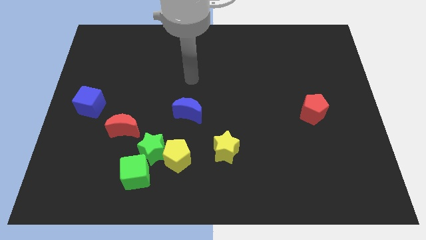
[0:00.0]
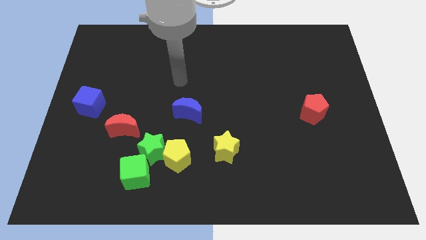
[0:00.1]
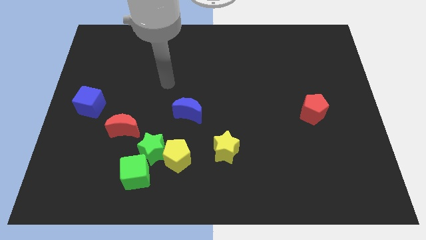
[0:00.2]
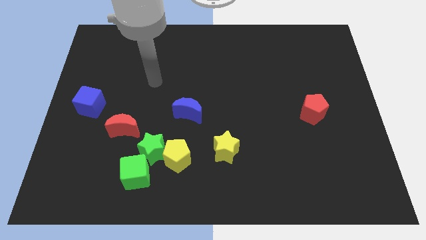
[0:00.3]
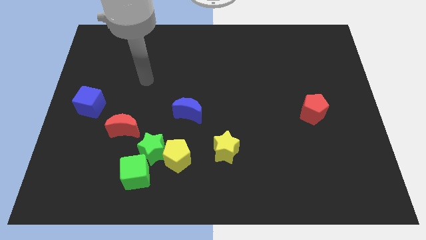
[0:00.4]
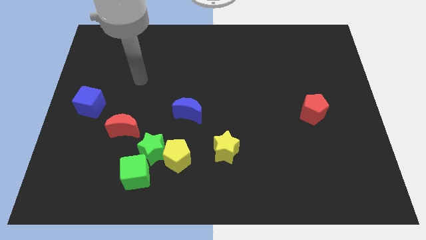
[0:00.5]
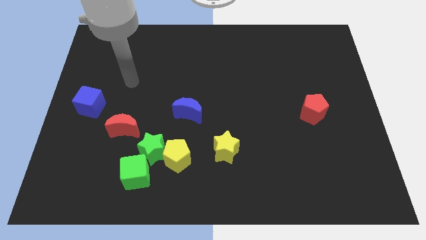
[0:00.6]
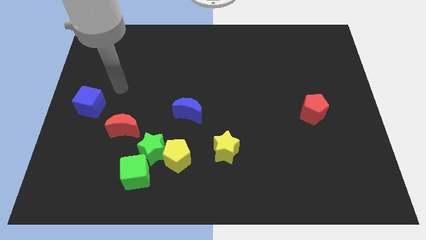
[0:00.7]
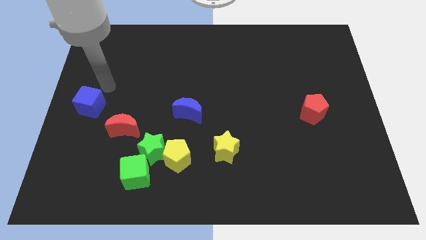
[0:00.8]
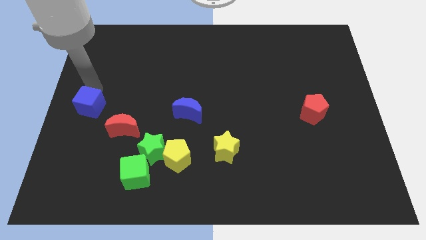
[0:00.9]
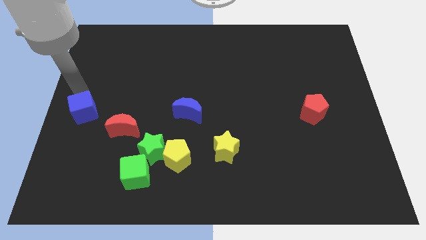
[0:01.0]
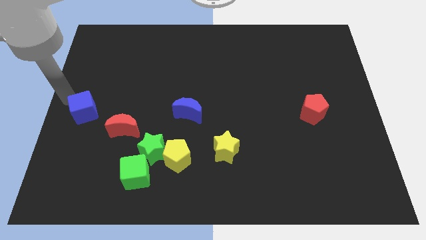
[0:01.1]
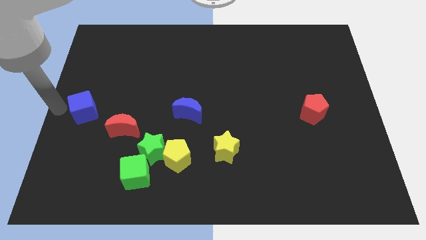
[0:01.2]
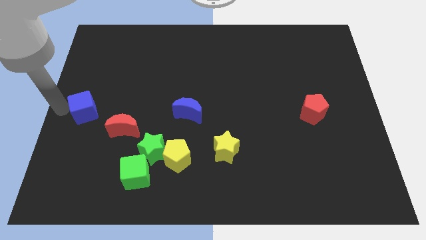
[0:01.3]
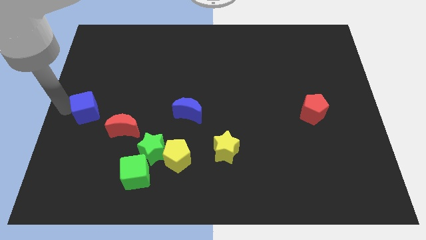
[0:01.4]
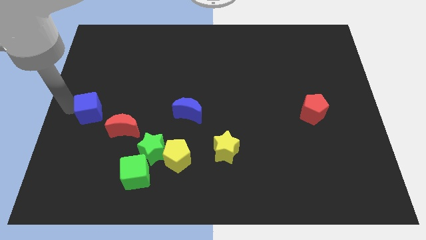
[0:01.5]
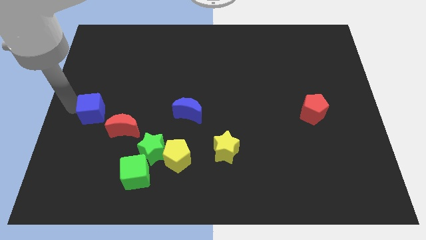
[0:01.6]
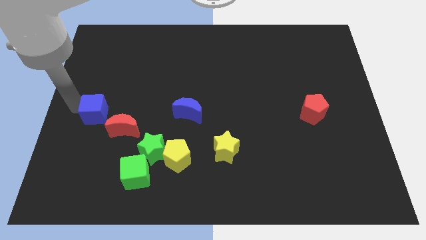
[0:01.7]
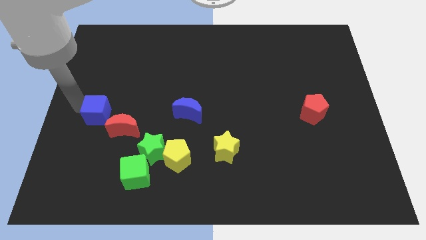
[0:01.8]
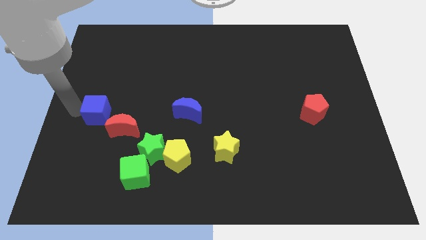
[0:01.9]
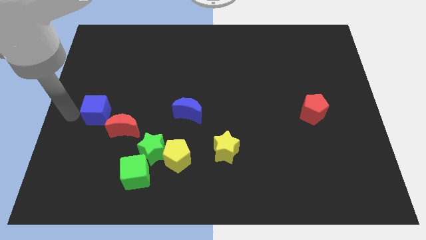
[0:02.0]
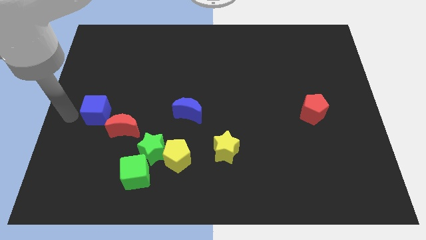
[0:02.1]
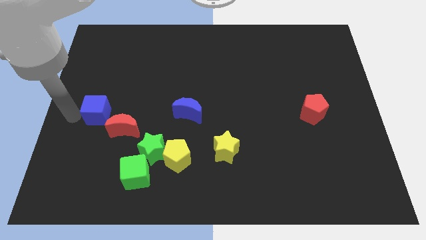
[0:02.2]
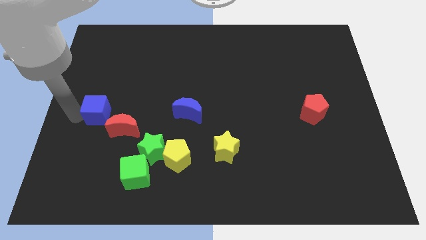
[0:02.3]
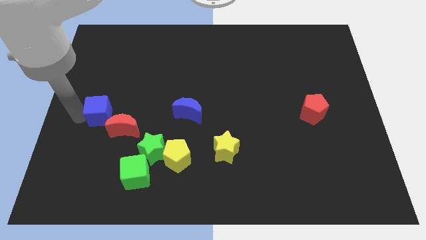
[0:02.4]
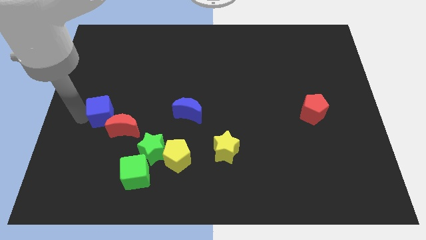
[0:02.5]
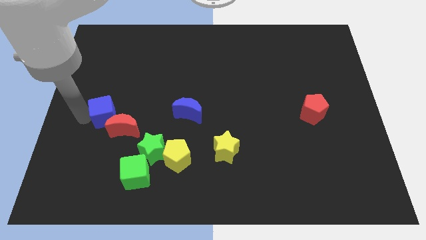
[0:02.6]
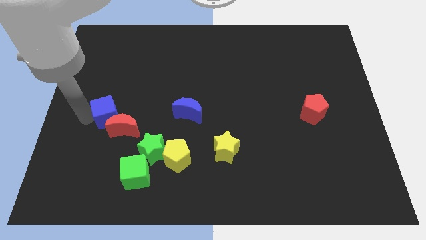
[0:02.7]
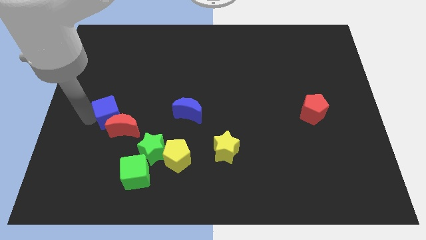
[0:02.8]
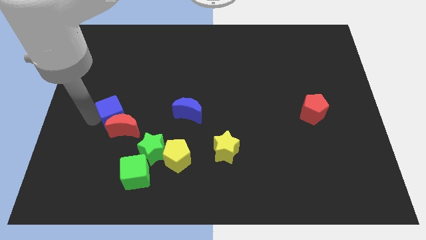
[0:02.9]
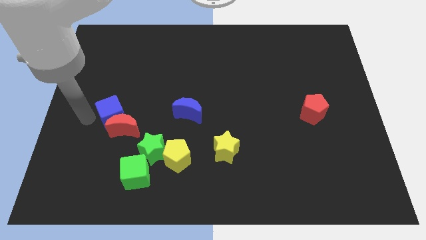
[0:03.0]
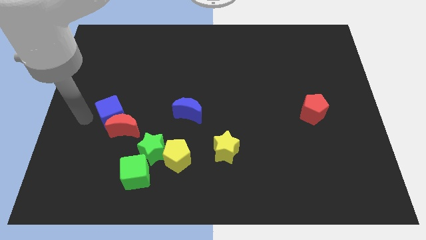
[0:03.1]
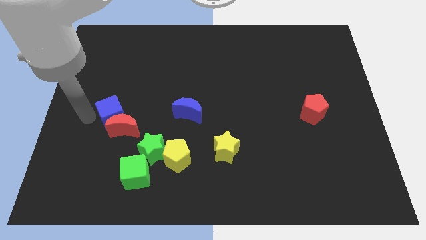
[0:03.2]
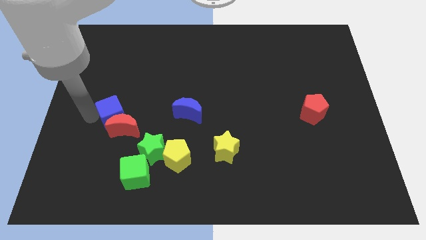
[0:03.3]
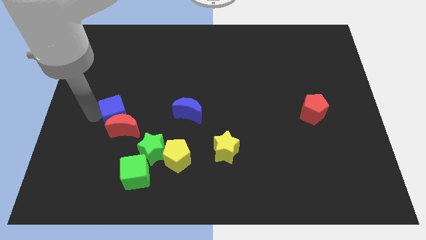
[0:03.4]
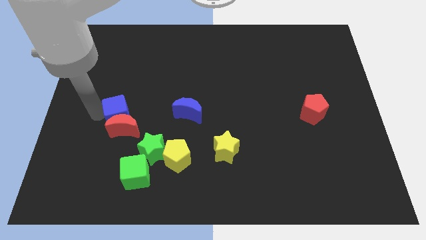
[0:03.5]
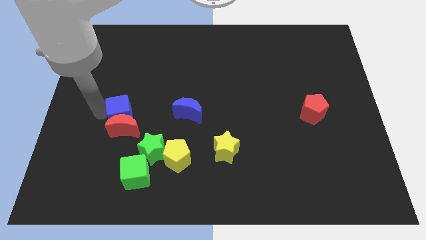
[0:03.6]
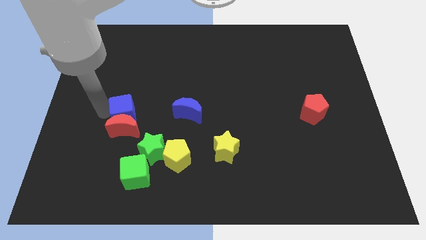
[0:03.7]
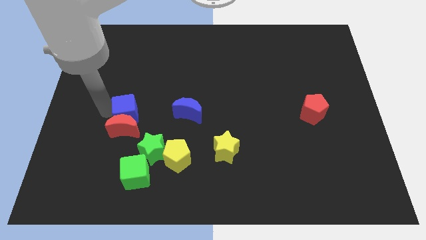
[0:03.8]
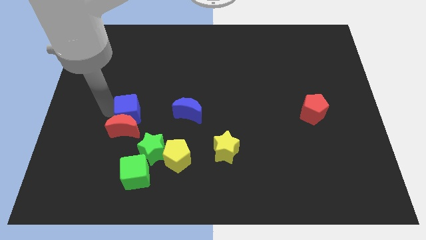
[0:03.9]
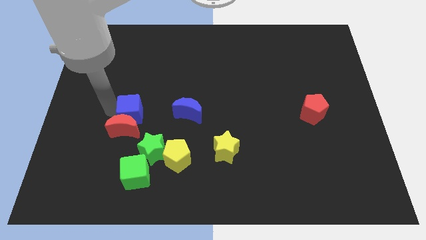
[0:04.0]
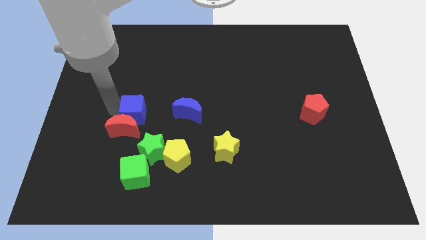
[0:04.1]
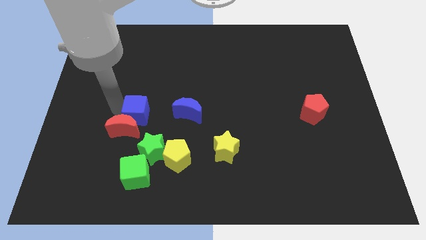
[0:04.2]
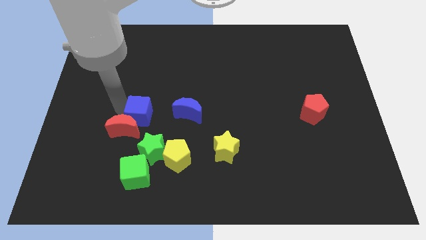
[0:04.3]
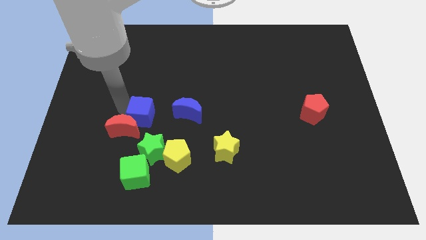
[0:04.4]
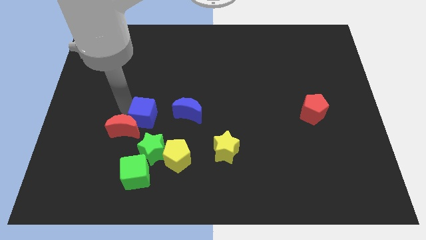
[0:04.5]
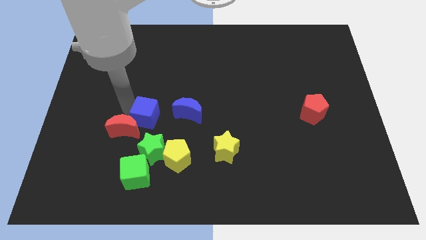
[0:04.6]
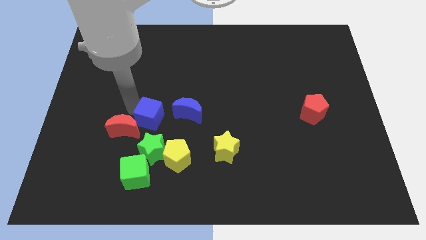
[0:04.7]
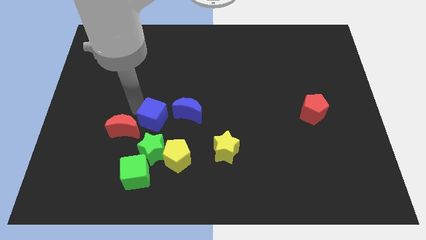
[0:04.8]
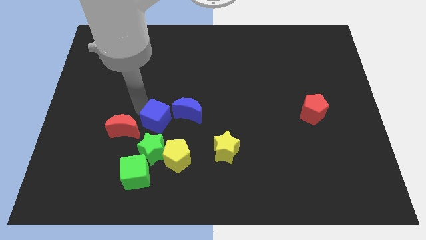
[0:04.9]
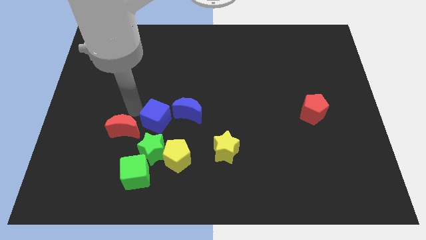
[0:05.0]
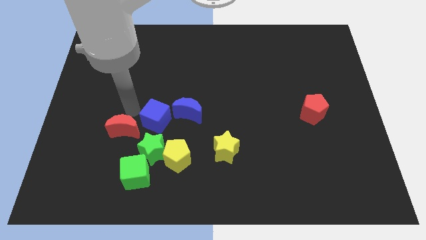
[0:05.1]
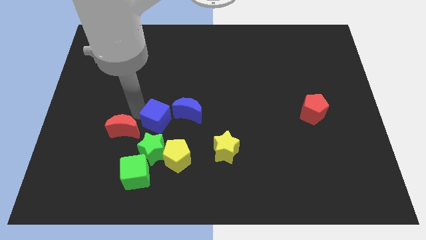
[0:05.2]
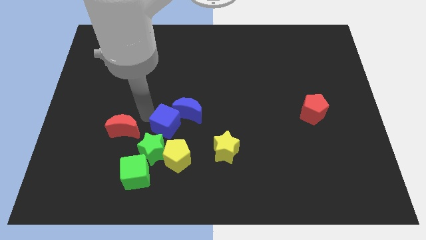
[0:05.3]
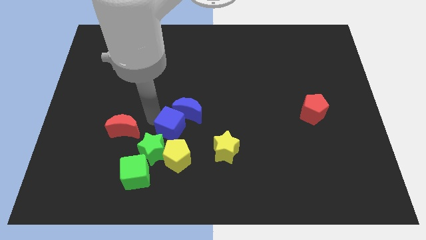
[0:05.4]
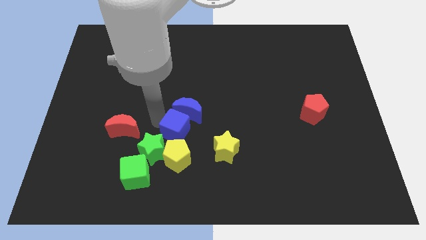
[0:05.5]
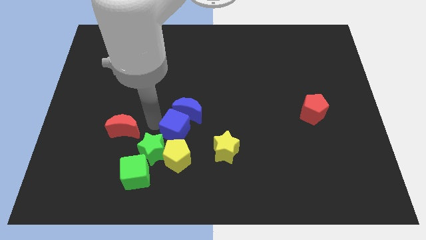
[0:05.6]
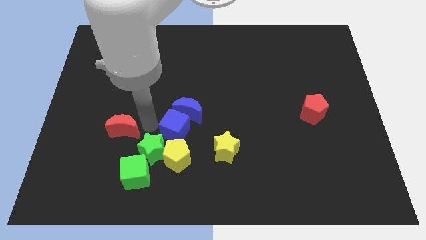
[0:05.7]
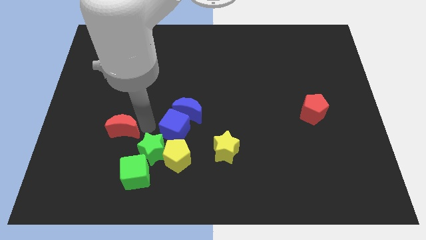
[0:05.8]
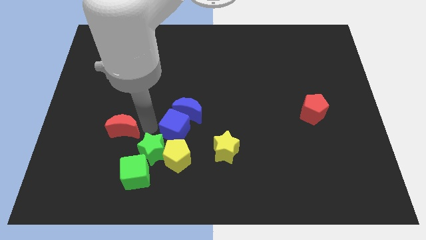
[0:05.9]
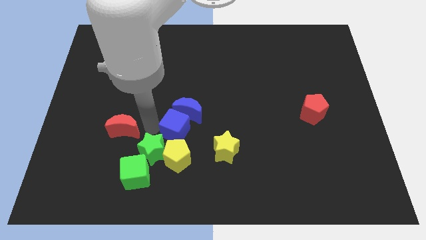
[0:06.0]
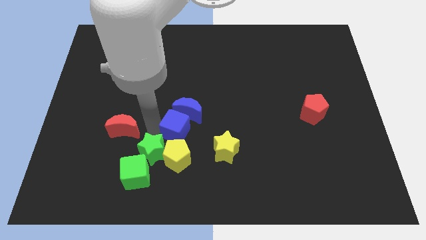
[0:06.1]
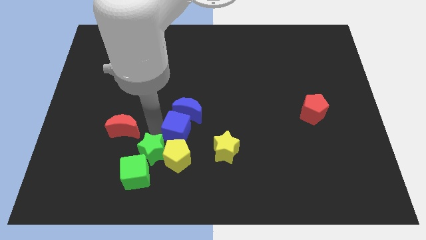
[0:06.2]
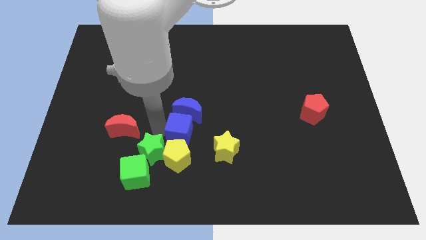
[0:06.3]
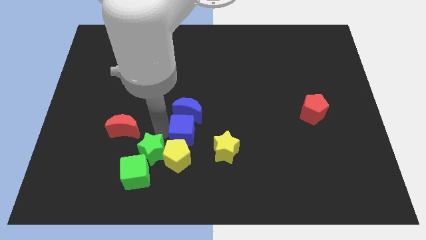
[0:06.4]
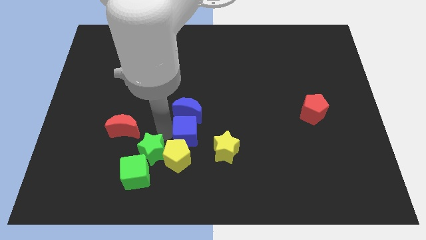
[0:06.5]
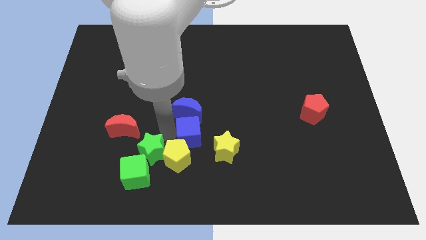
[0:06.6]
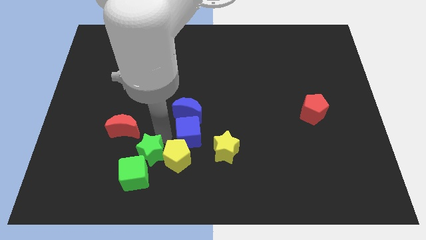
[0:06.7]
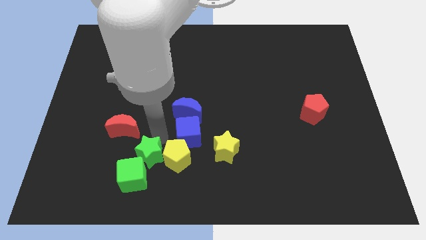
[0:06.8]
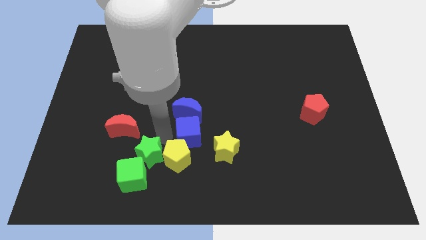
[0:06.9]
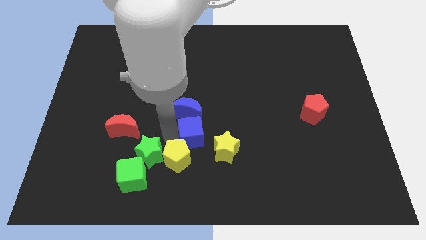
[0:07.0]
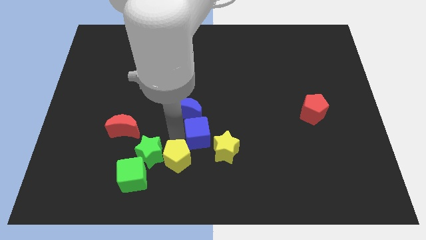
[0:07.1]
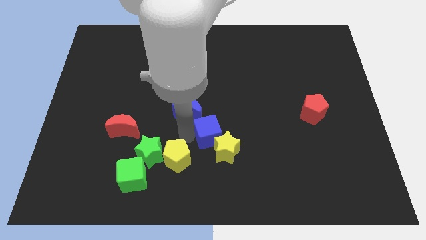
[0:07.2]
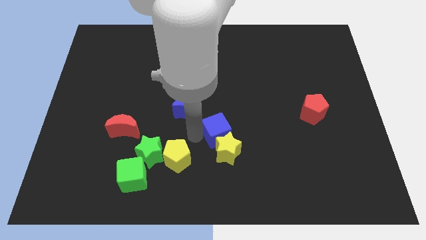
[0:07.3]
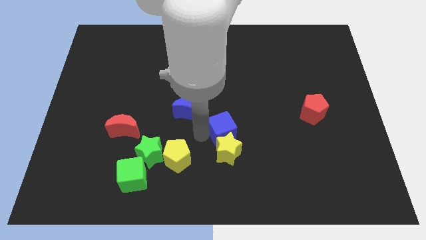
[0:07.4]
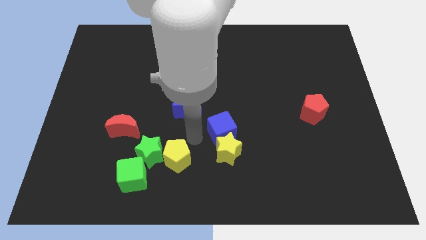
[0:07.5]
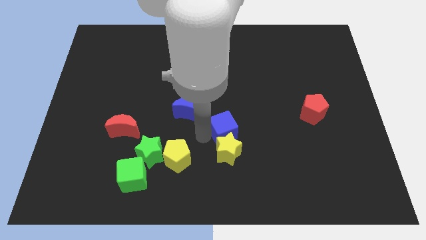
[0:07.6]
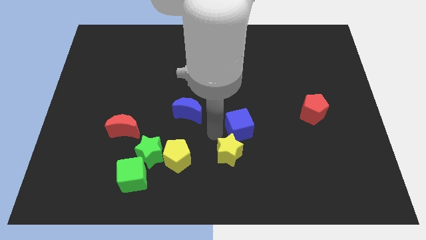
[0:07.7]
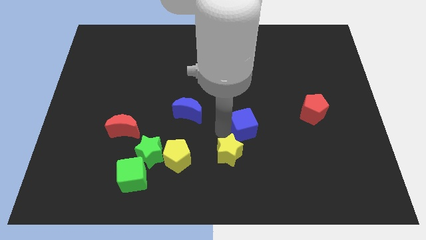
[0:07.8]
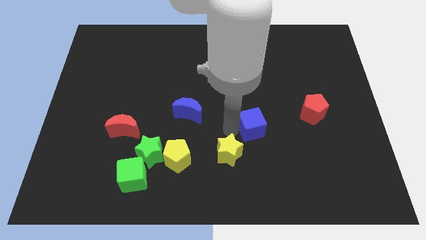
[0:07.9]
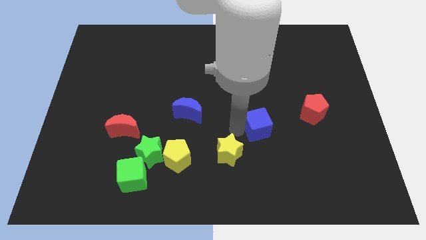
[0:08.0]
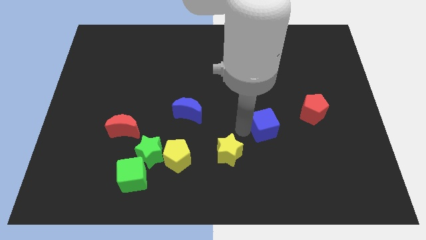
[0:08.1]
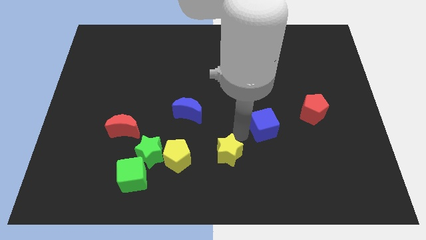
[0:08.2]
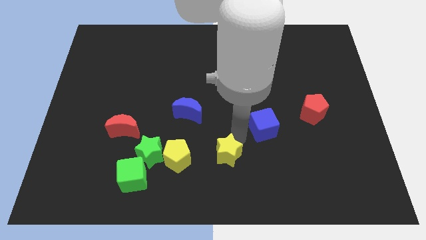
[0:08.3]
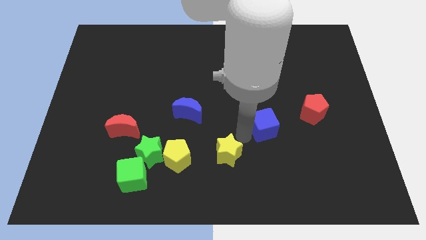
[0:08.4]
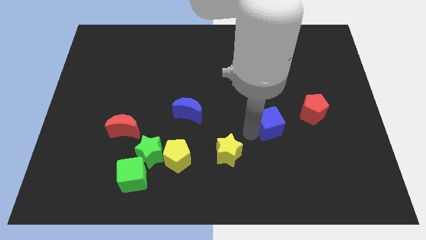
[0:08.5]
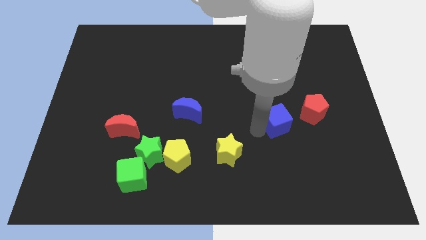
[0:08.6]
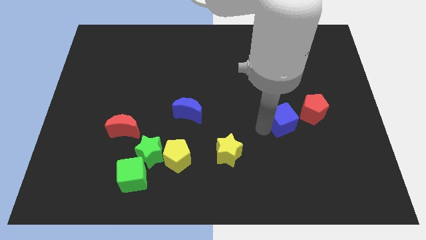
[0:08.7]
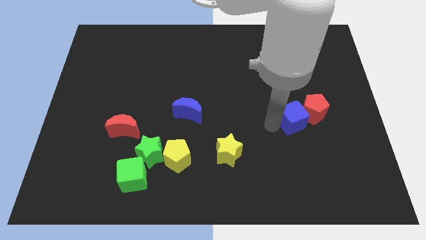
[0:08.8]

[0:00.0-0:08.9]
move the blue cube next to the red pentagon
